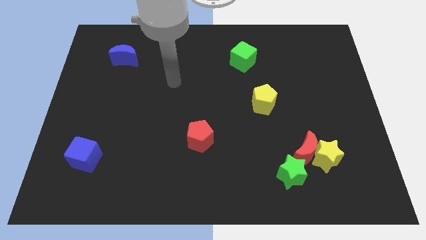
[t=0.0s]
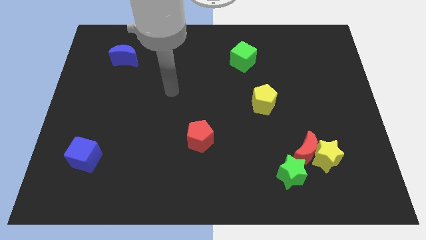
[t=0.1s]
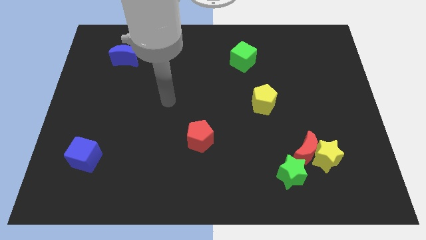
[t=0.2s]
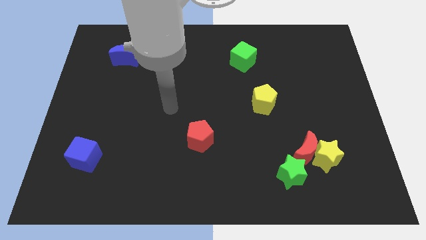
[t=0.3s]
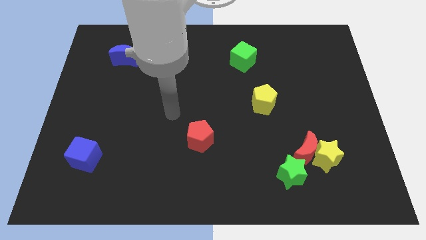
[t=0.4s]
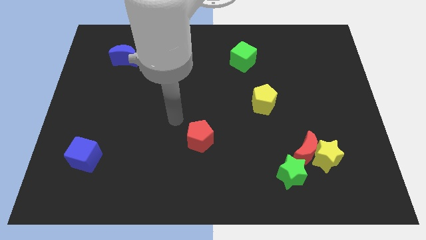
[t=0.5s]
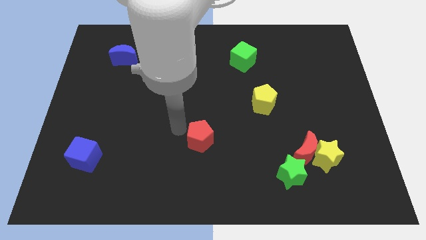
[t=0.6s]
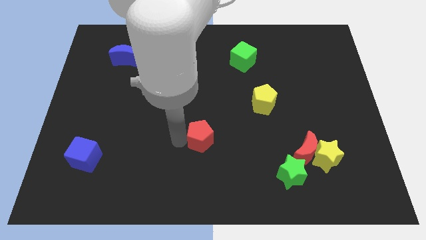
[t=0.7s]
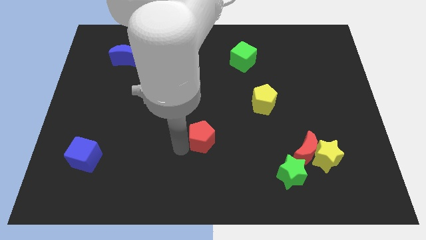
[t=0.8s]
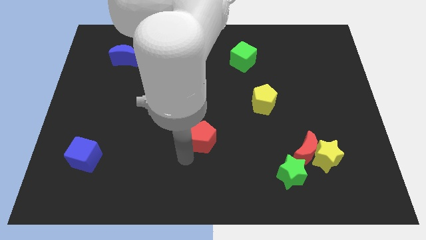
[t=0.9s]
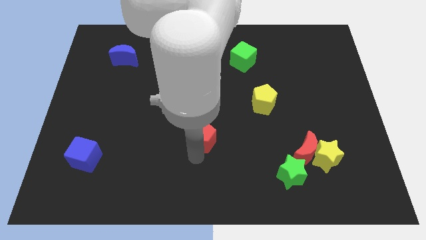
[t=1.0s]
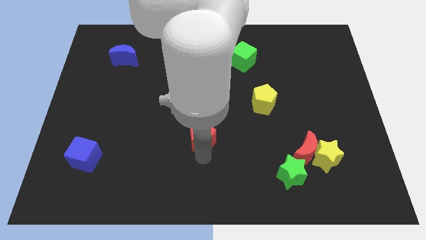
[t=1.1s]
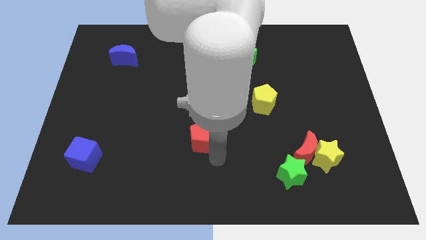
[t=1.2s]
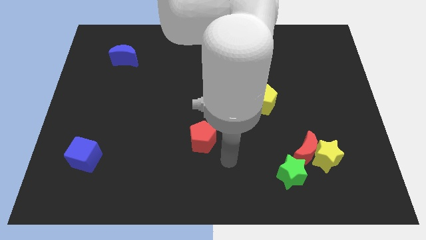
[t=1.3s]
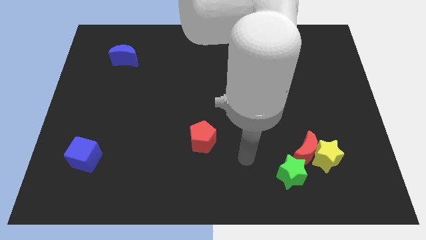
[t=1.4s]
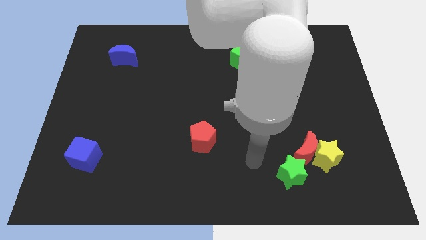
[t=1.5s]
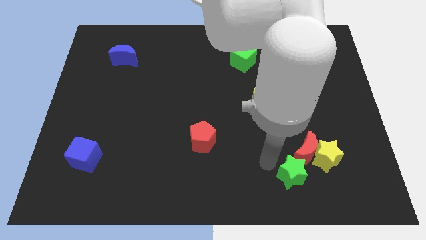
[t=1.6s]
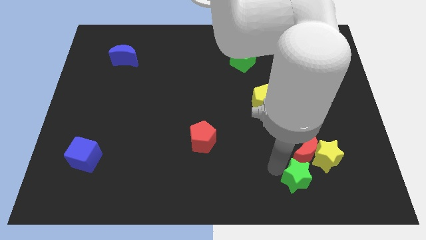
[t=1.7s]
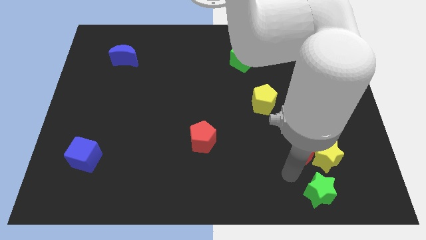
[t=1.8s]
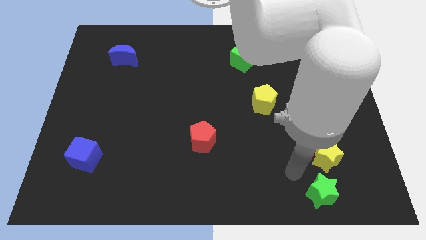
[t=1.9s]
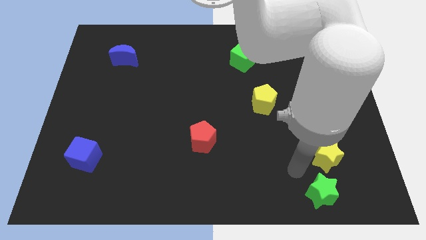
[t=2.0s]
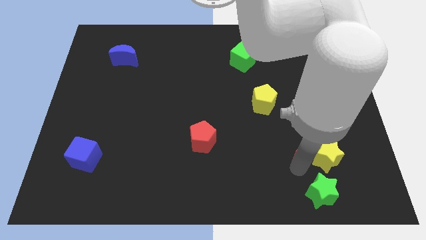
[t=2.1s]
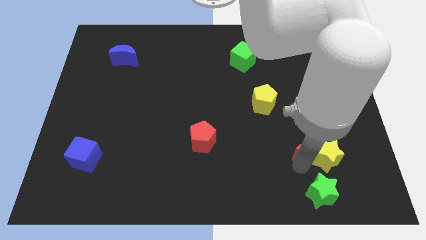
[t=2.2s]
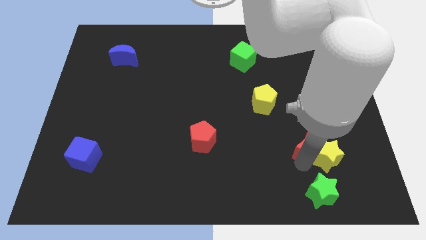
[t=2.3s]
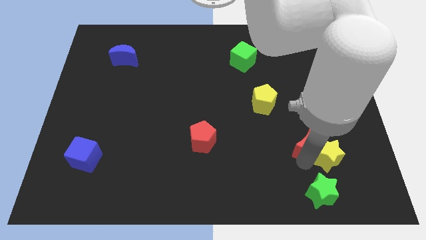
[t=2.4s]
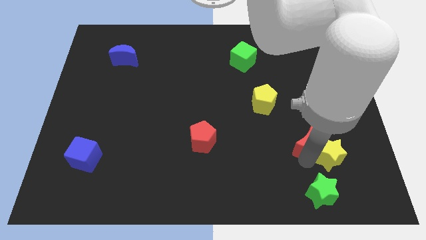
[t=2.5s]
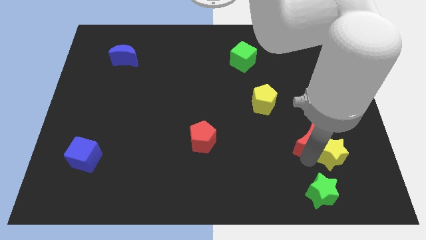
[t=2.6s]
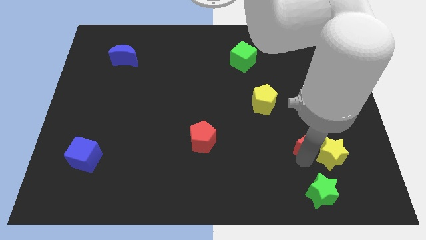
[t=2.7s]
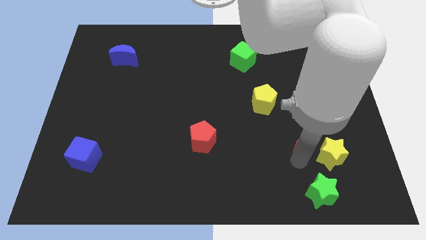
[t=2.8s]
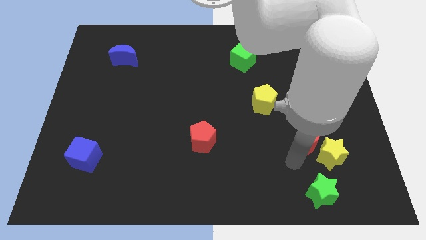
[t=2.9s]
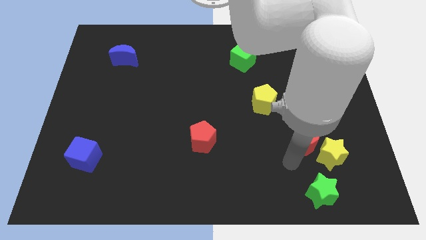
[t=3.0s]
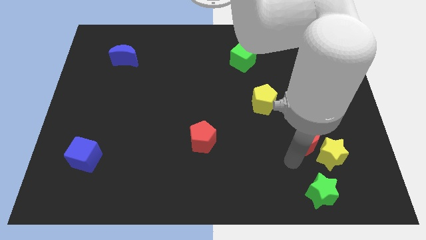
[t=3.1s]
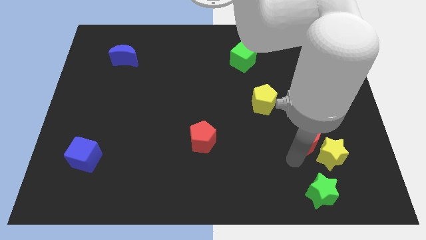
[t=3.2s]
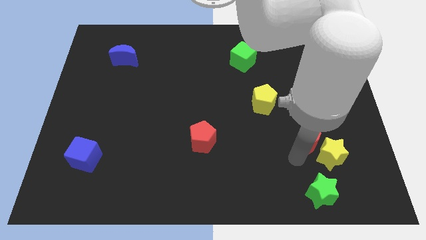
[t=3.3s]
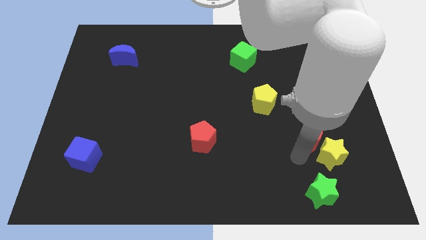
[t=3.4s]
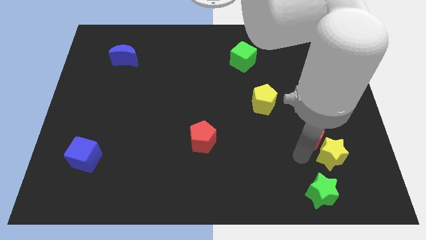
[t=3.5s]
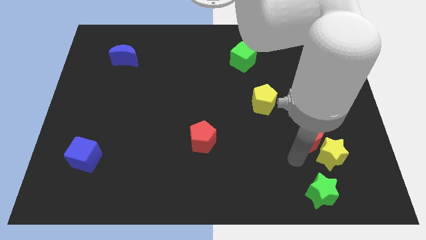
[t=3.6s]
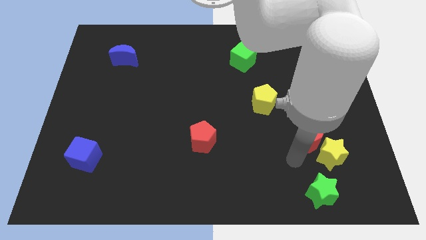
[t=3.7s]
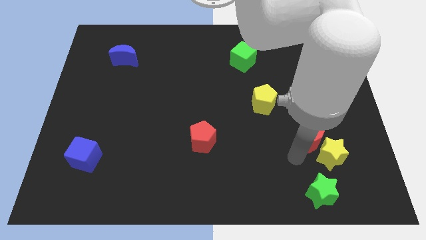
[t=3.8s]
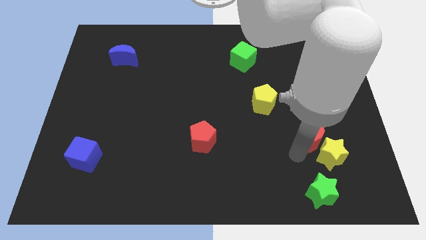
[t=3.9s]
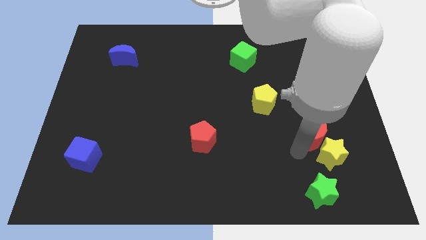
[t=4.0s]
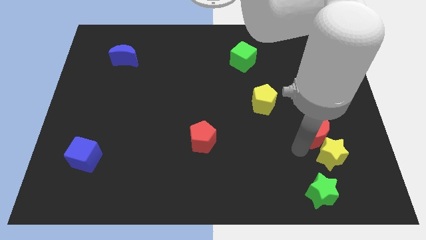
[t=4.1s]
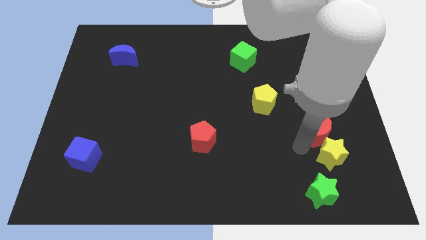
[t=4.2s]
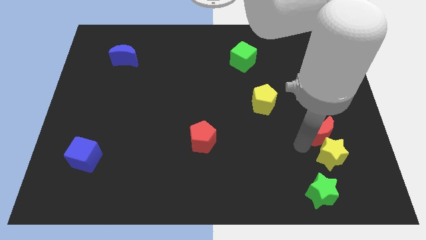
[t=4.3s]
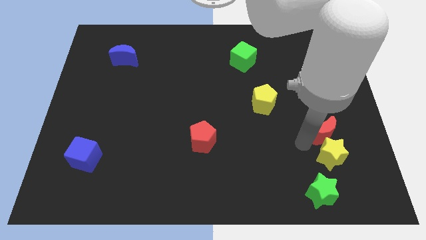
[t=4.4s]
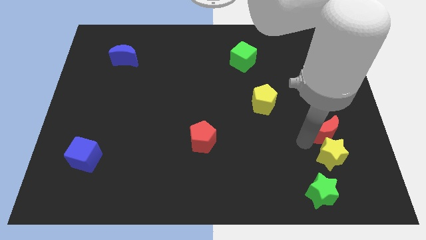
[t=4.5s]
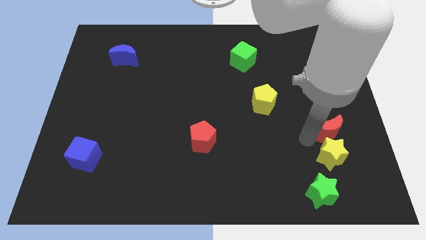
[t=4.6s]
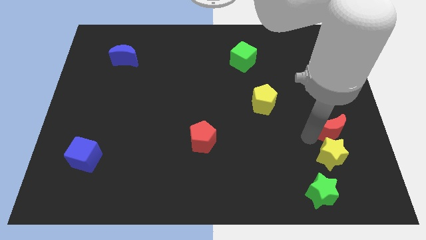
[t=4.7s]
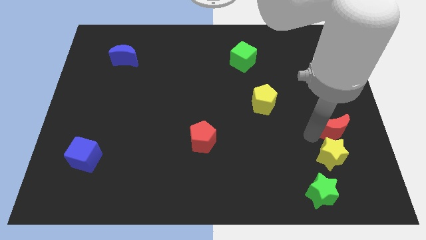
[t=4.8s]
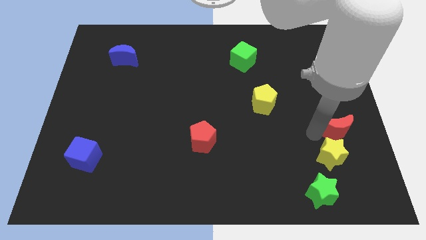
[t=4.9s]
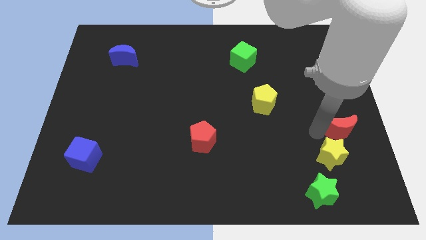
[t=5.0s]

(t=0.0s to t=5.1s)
move the red moon to the right side of the board

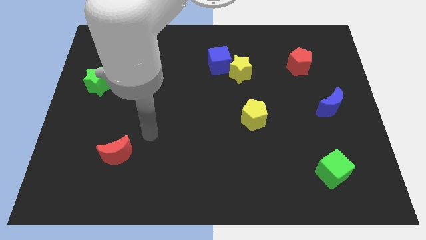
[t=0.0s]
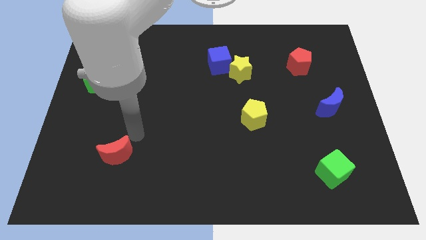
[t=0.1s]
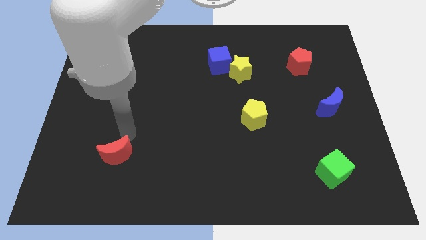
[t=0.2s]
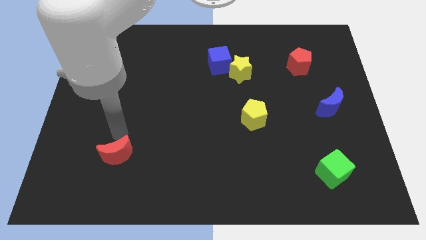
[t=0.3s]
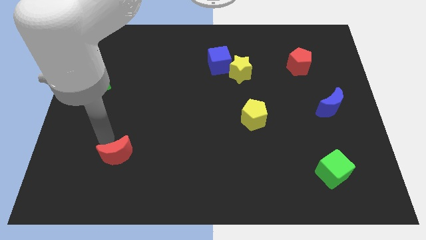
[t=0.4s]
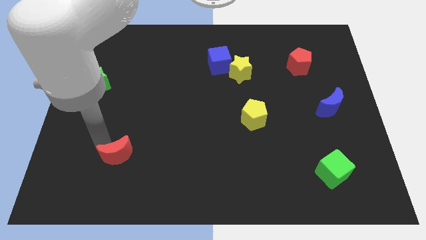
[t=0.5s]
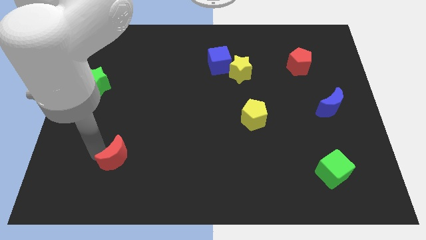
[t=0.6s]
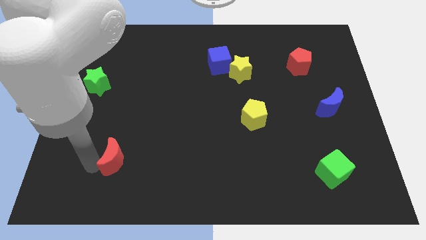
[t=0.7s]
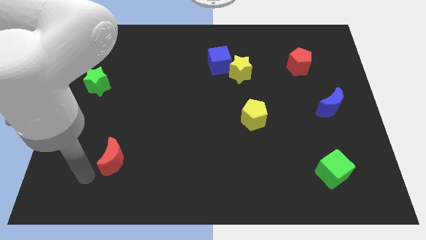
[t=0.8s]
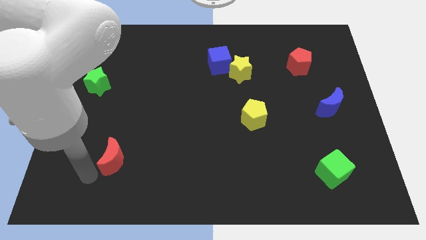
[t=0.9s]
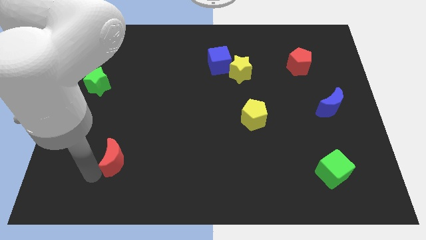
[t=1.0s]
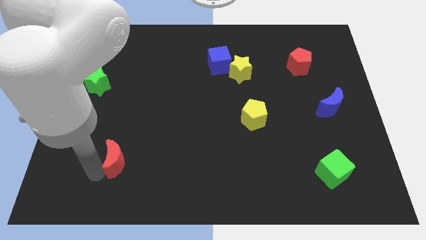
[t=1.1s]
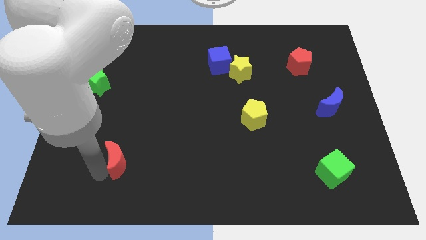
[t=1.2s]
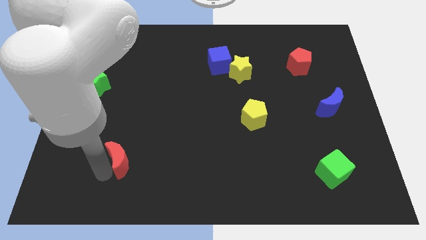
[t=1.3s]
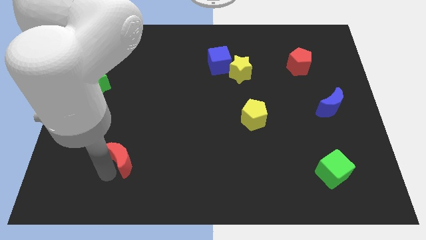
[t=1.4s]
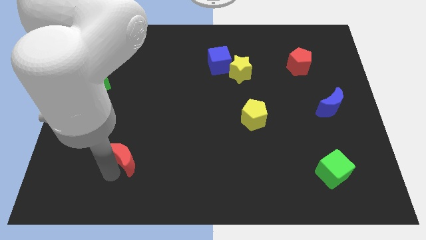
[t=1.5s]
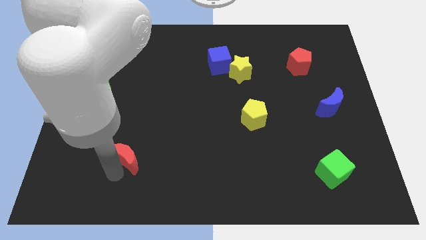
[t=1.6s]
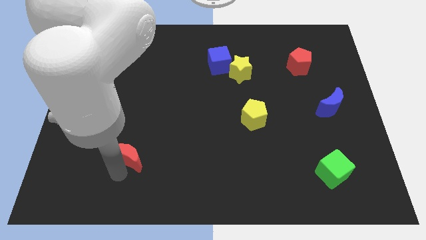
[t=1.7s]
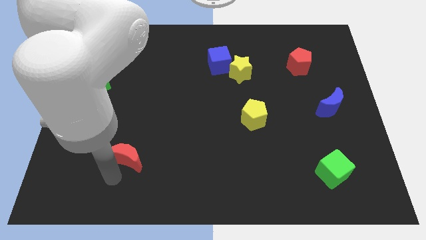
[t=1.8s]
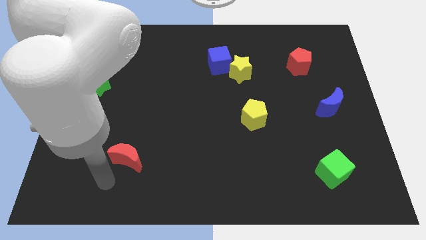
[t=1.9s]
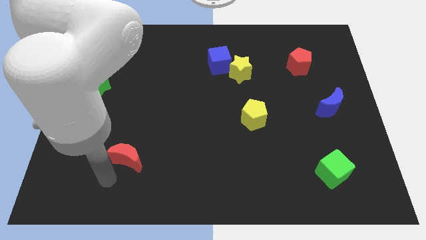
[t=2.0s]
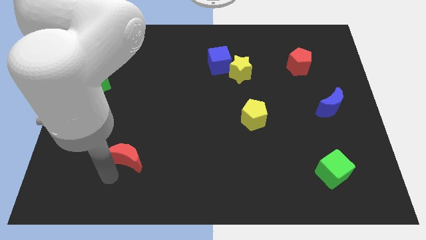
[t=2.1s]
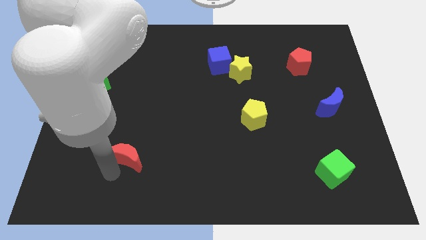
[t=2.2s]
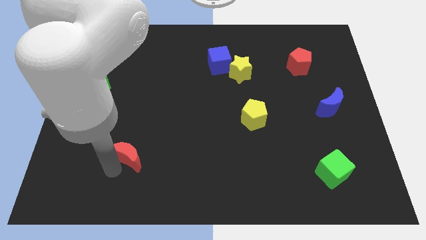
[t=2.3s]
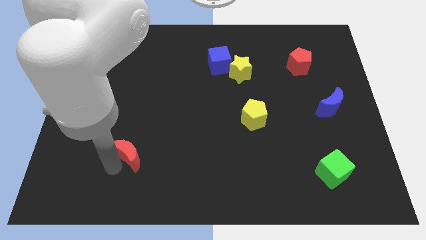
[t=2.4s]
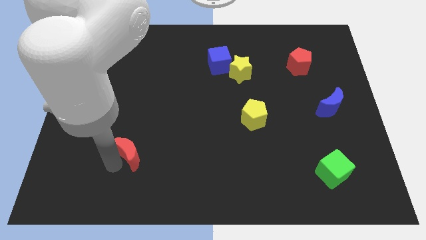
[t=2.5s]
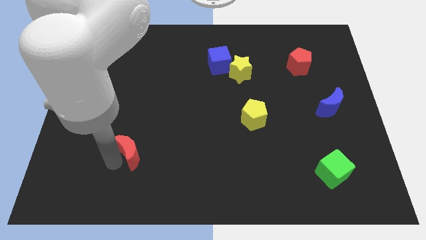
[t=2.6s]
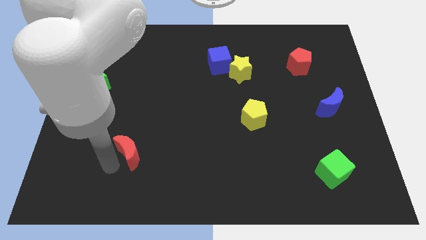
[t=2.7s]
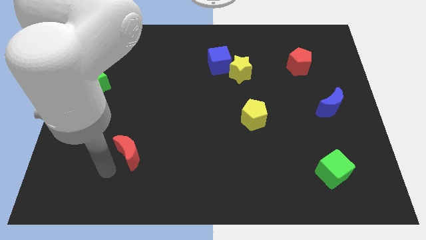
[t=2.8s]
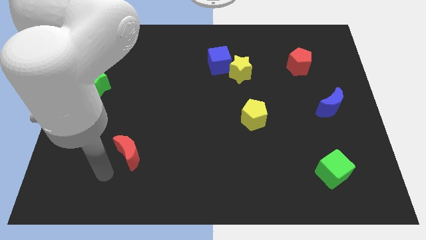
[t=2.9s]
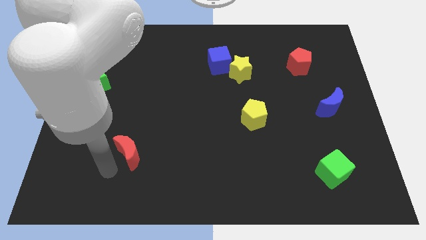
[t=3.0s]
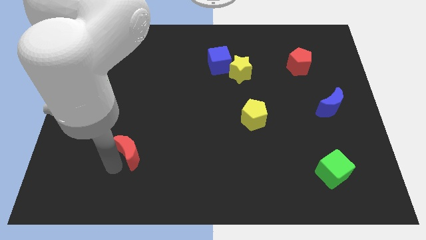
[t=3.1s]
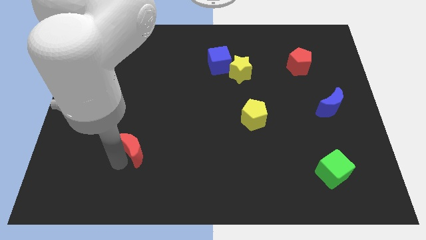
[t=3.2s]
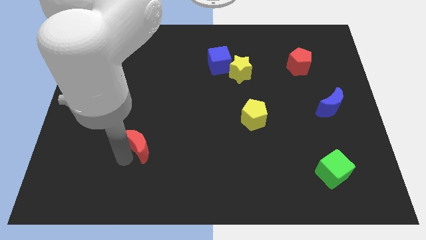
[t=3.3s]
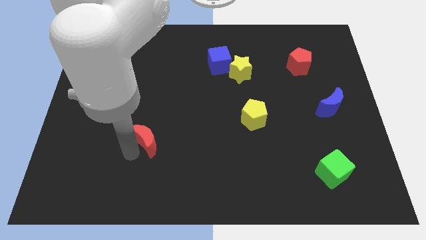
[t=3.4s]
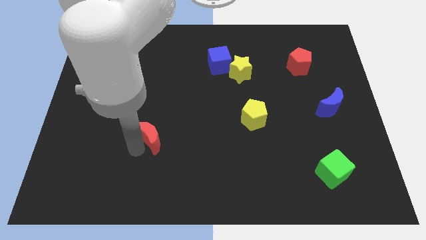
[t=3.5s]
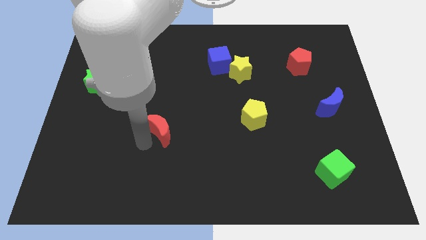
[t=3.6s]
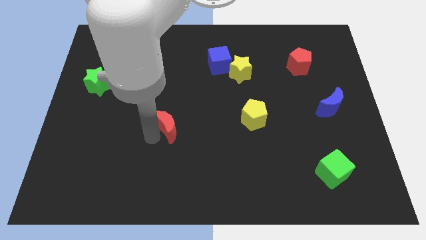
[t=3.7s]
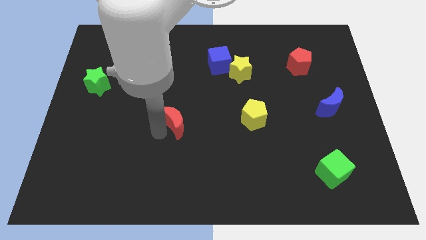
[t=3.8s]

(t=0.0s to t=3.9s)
move the red moon to the center
